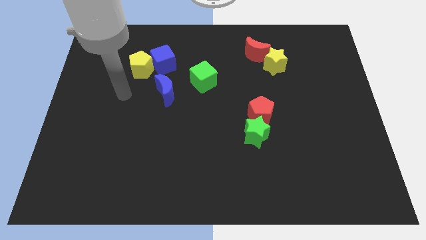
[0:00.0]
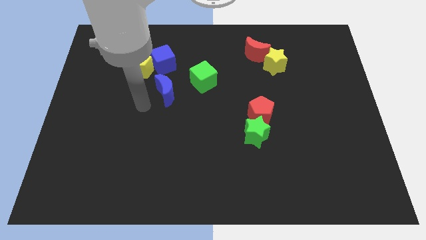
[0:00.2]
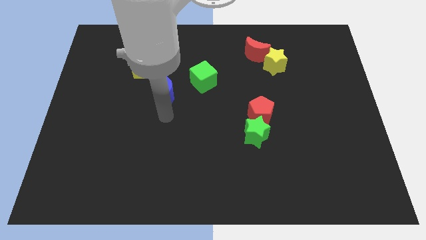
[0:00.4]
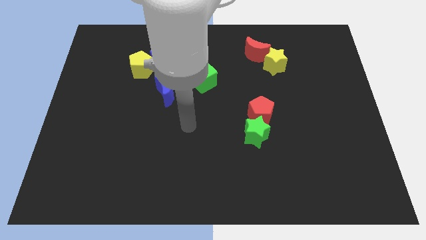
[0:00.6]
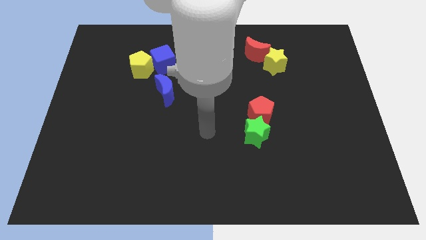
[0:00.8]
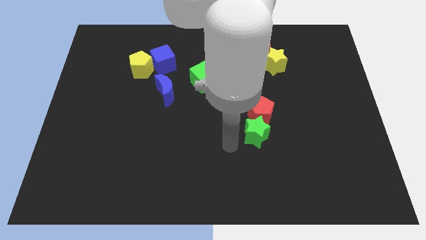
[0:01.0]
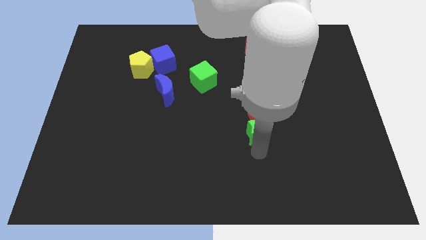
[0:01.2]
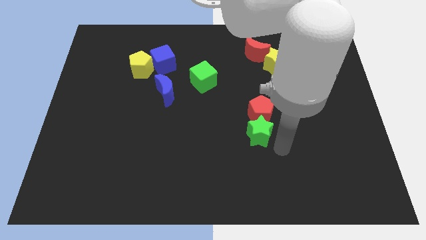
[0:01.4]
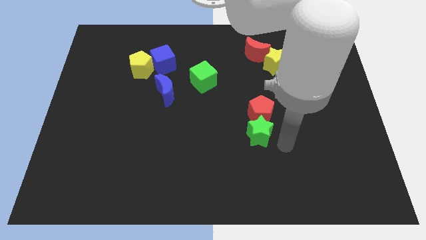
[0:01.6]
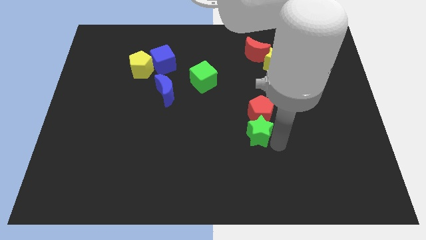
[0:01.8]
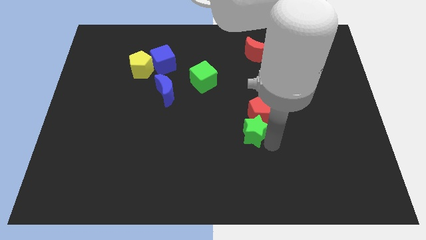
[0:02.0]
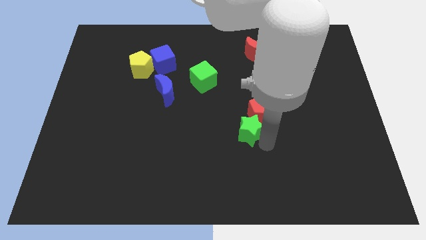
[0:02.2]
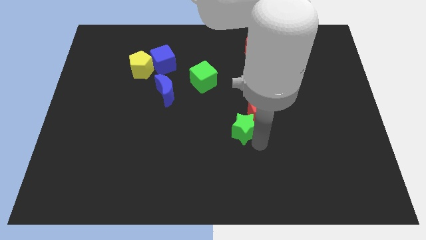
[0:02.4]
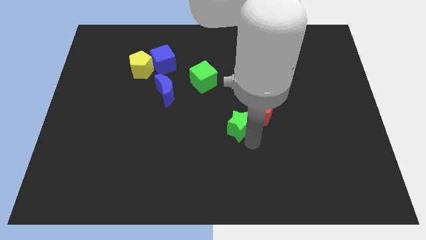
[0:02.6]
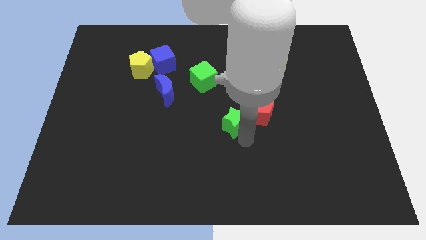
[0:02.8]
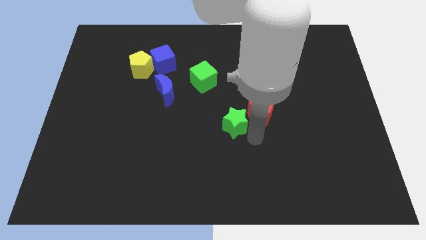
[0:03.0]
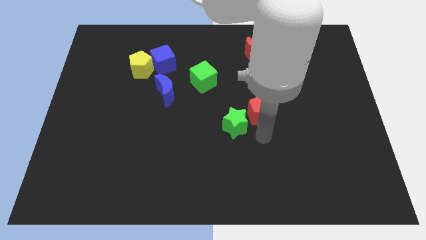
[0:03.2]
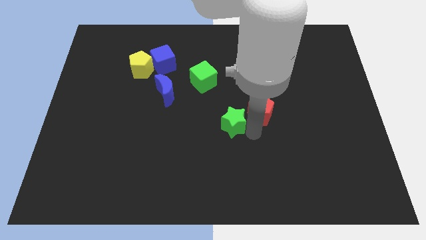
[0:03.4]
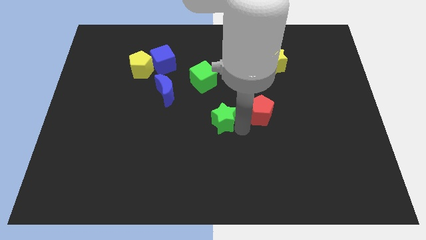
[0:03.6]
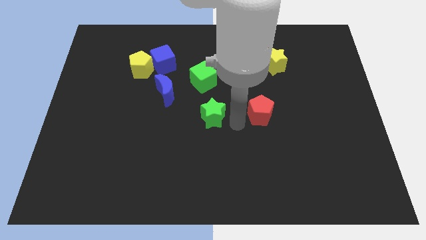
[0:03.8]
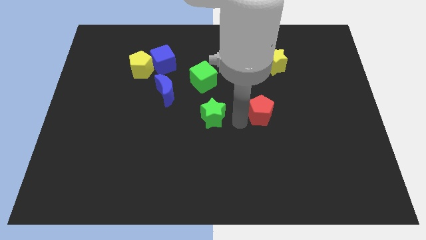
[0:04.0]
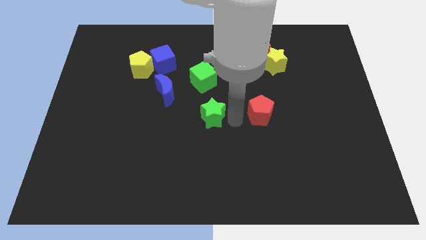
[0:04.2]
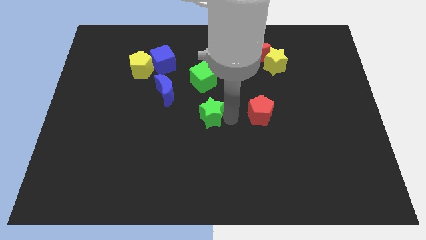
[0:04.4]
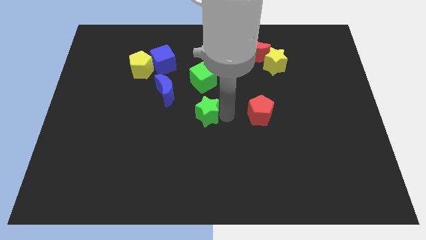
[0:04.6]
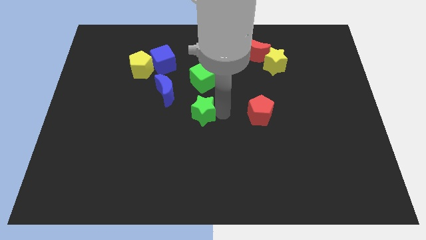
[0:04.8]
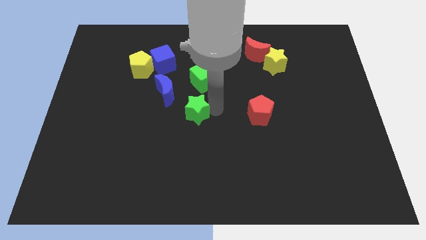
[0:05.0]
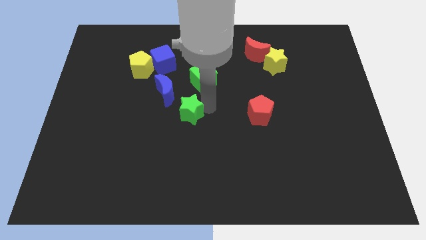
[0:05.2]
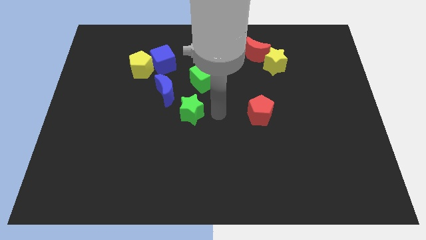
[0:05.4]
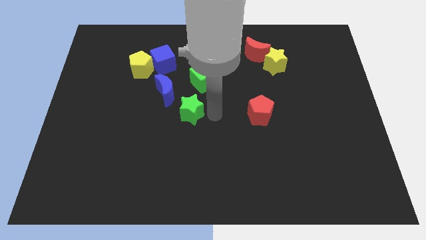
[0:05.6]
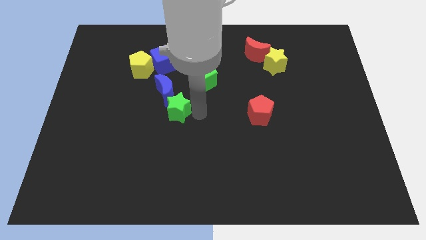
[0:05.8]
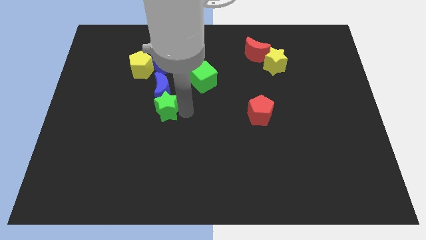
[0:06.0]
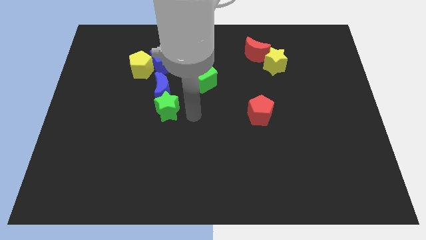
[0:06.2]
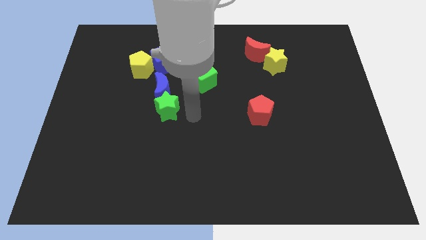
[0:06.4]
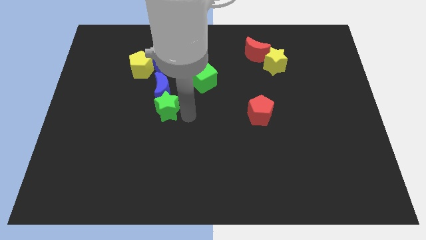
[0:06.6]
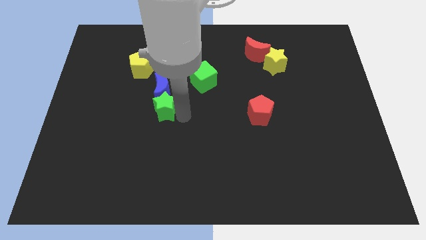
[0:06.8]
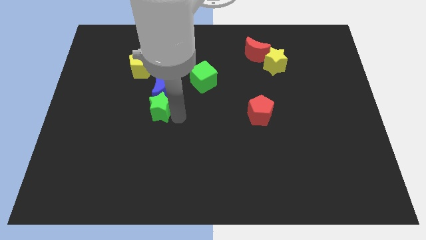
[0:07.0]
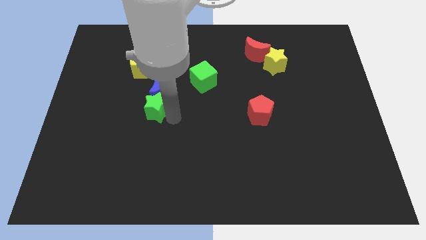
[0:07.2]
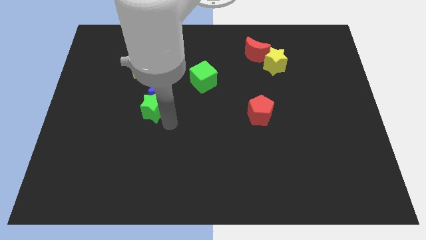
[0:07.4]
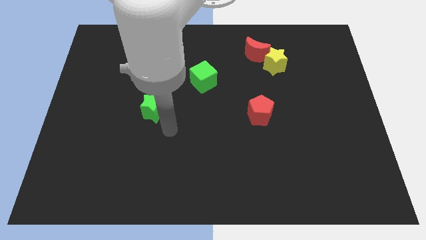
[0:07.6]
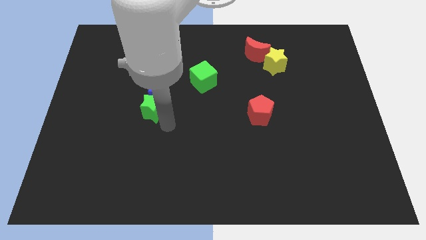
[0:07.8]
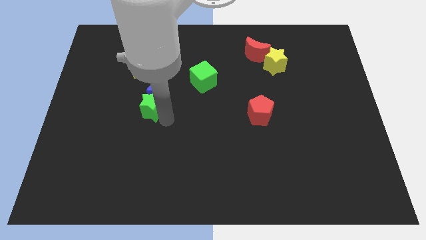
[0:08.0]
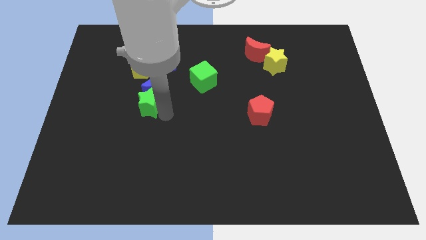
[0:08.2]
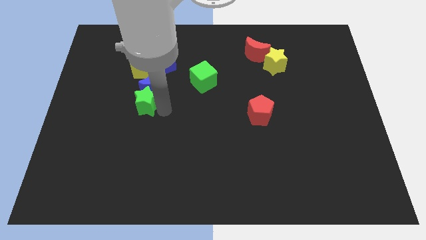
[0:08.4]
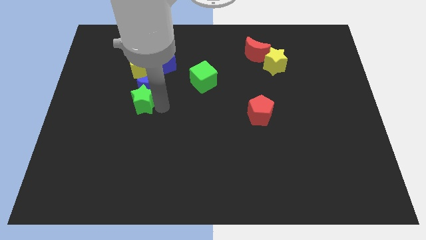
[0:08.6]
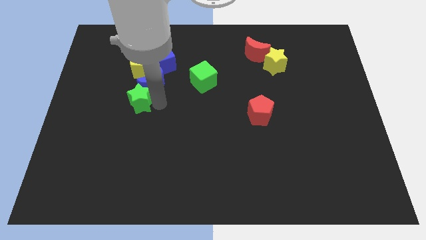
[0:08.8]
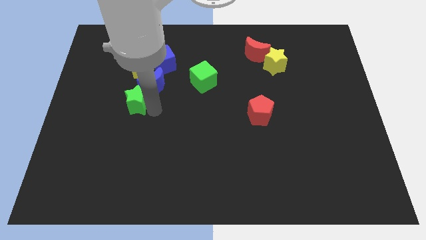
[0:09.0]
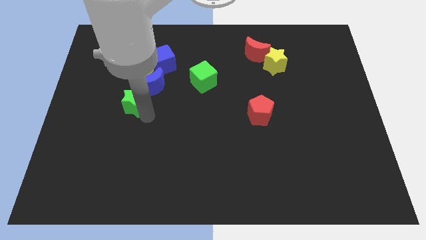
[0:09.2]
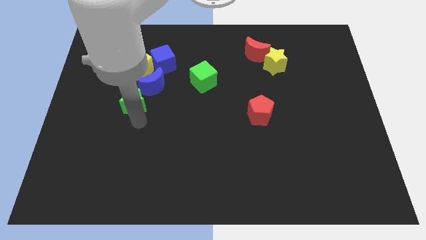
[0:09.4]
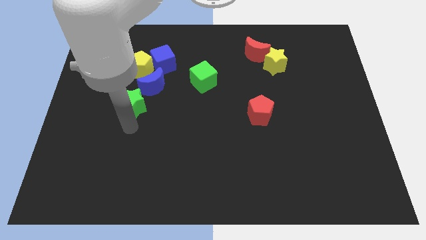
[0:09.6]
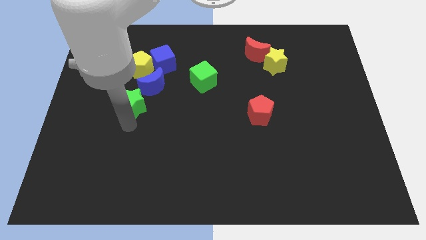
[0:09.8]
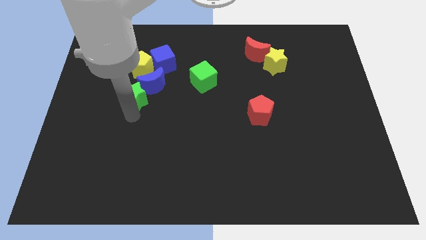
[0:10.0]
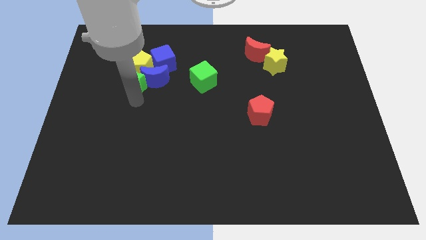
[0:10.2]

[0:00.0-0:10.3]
put the green star to the yellow pentagon

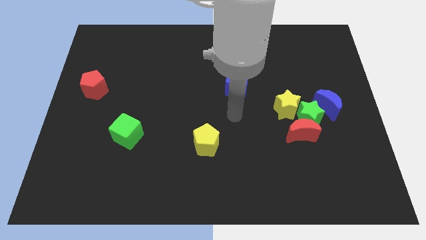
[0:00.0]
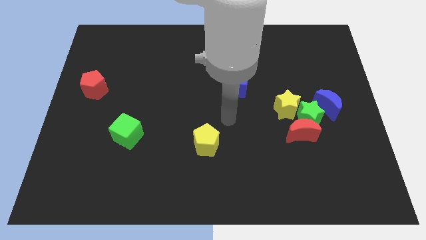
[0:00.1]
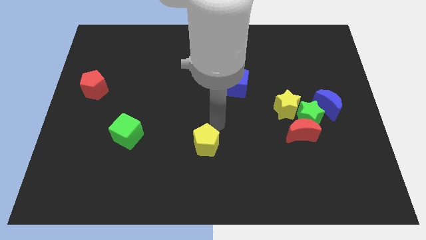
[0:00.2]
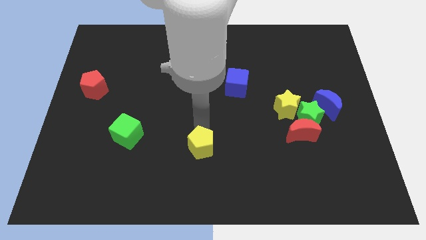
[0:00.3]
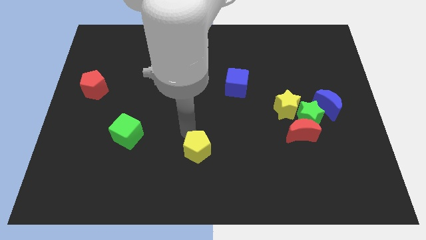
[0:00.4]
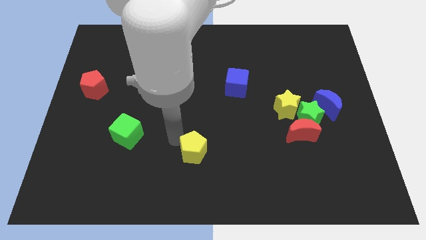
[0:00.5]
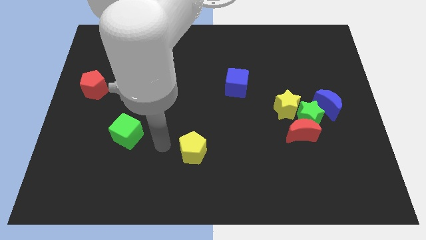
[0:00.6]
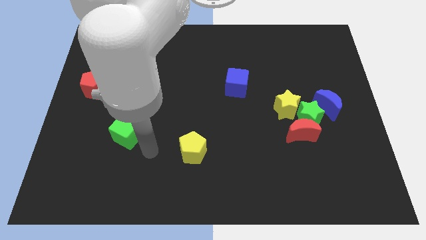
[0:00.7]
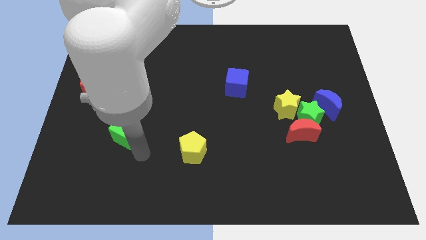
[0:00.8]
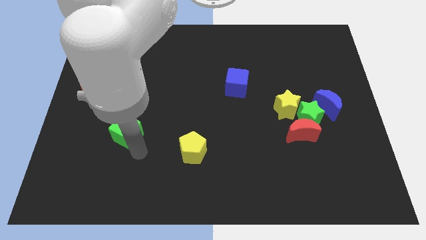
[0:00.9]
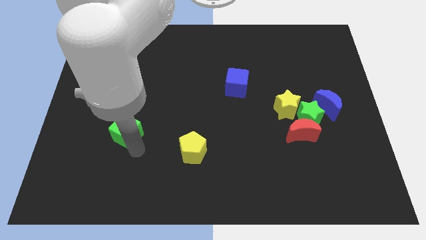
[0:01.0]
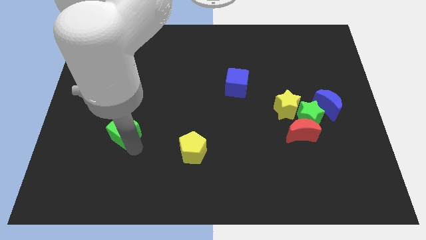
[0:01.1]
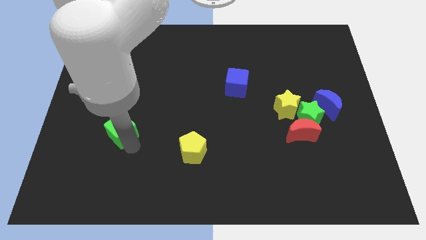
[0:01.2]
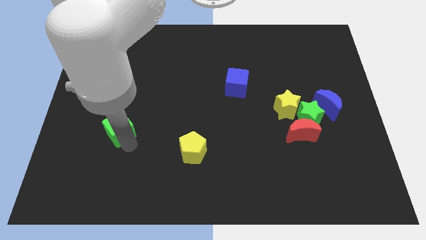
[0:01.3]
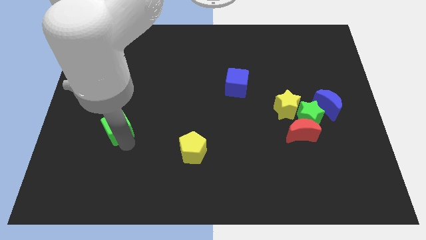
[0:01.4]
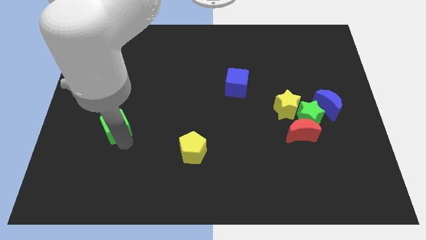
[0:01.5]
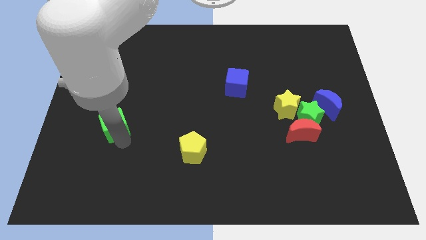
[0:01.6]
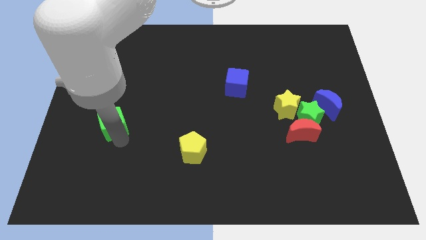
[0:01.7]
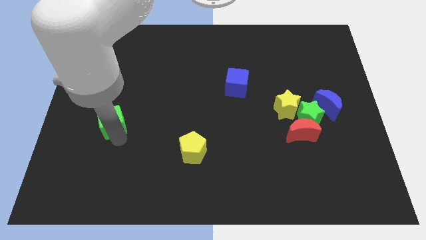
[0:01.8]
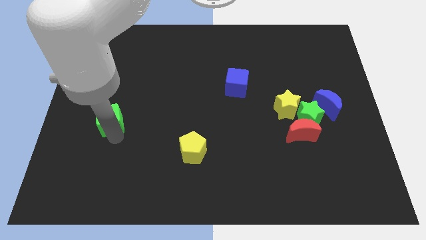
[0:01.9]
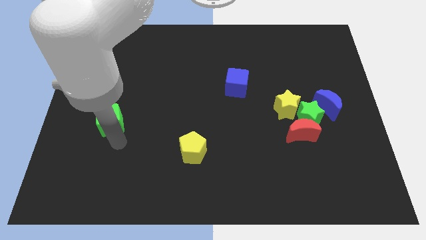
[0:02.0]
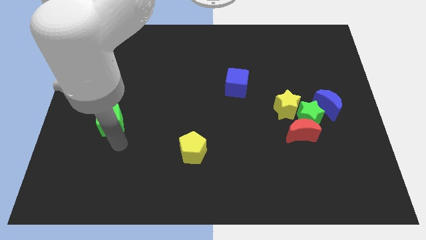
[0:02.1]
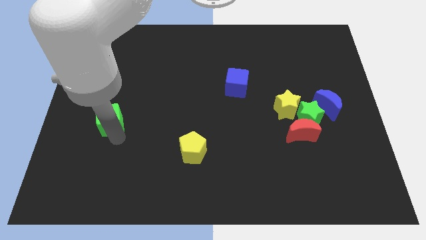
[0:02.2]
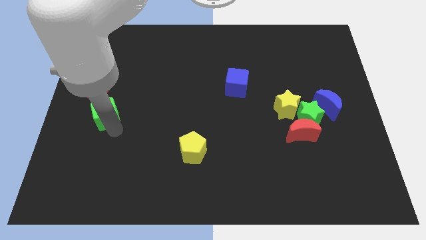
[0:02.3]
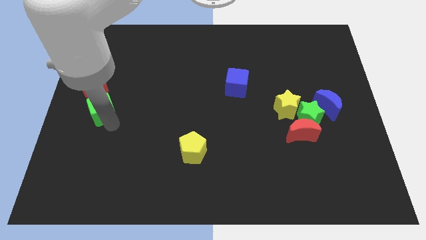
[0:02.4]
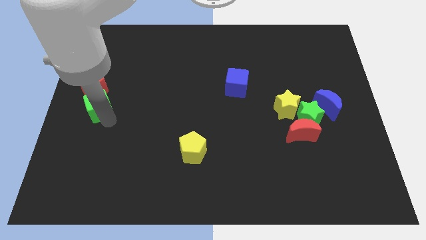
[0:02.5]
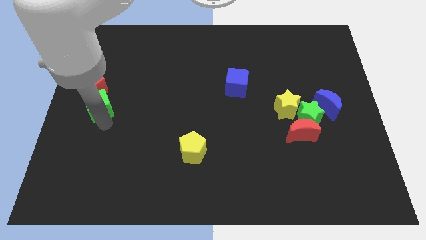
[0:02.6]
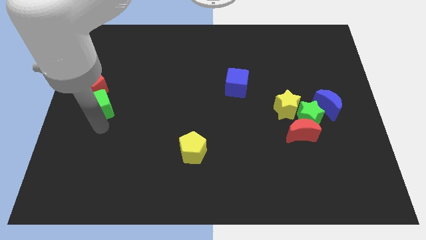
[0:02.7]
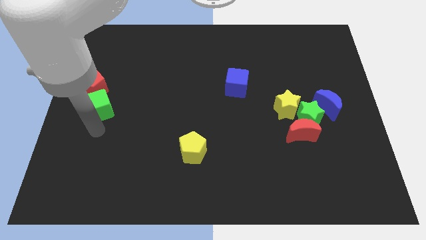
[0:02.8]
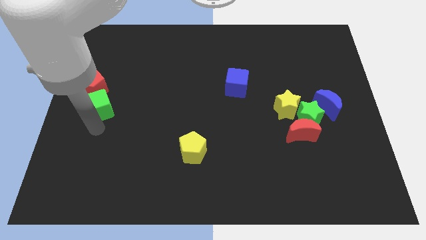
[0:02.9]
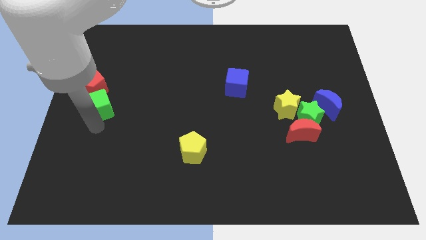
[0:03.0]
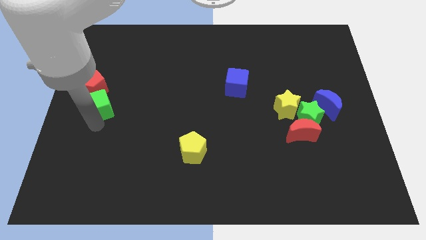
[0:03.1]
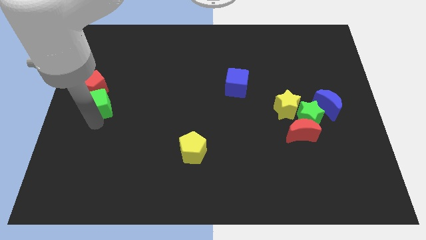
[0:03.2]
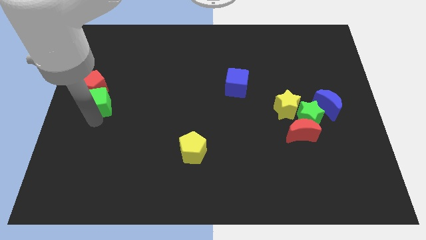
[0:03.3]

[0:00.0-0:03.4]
put the green cube towards the red pentagon
